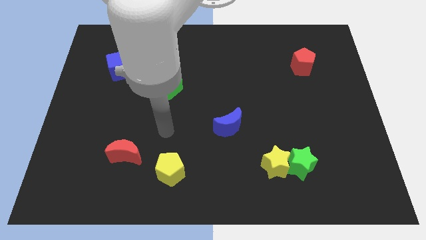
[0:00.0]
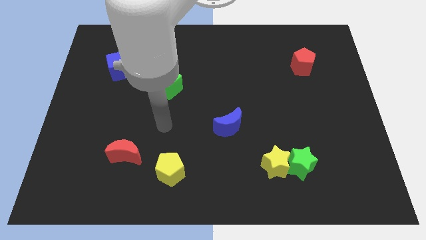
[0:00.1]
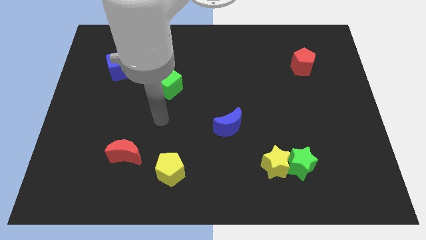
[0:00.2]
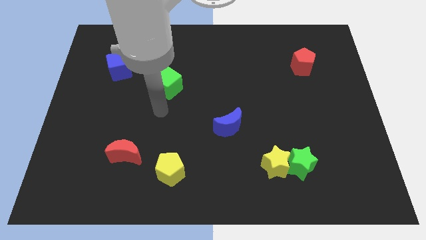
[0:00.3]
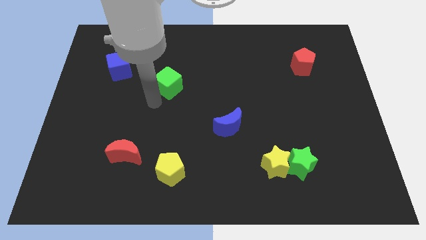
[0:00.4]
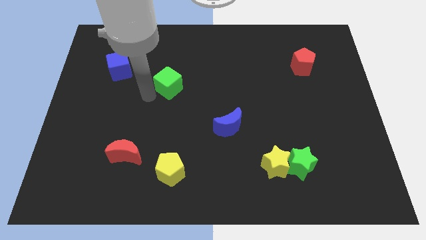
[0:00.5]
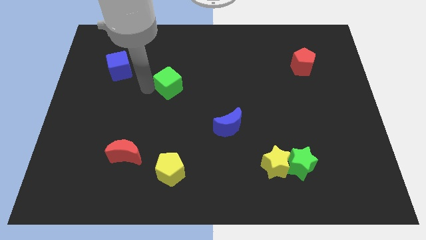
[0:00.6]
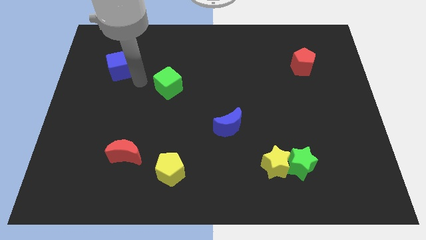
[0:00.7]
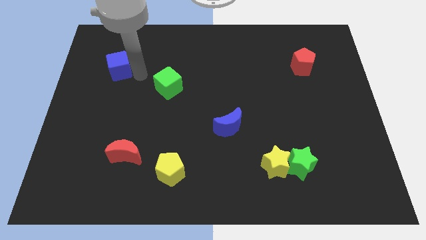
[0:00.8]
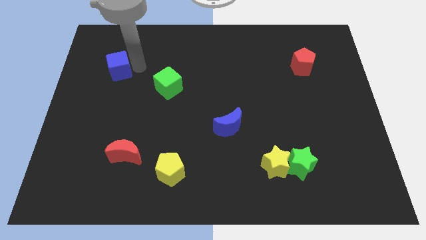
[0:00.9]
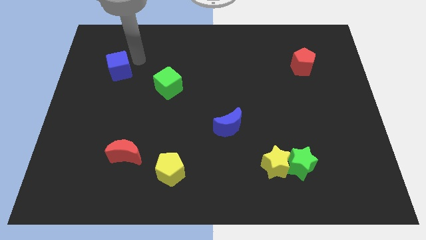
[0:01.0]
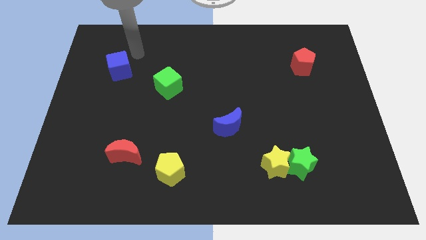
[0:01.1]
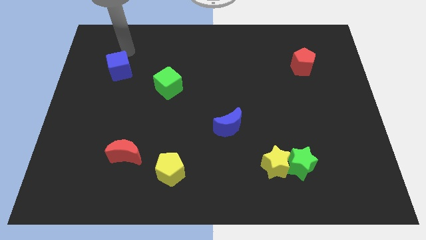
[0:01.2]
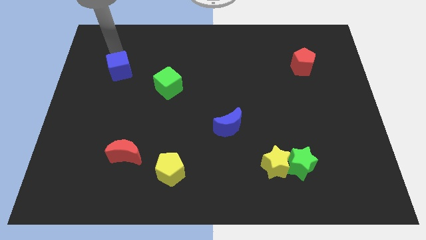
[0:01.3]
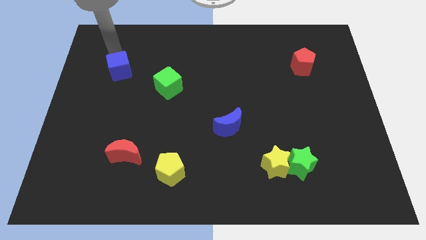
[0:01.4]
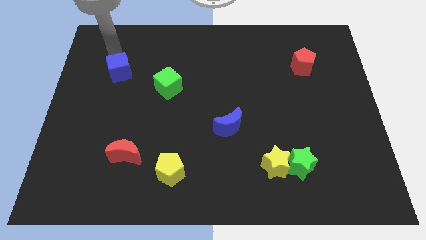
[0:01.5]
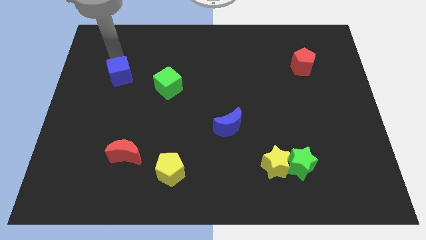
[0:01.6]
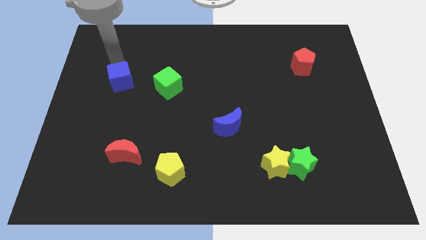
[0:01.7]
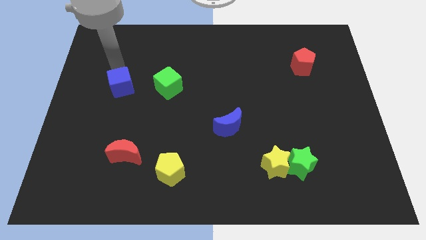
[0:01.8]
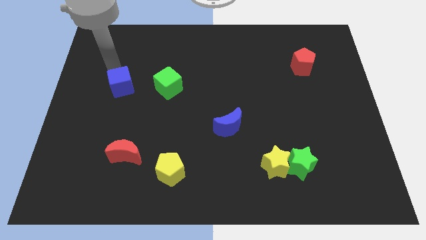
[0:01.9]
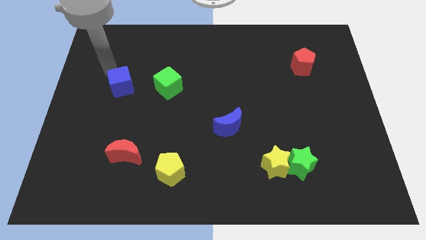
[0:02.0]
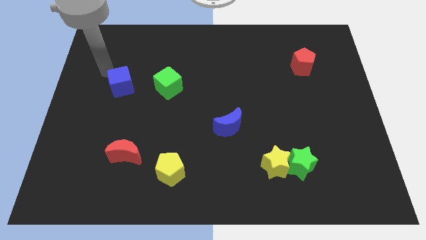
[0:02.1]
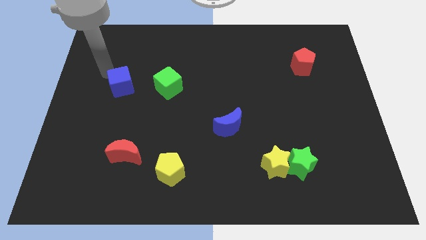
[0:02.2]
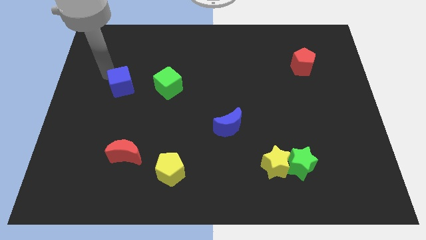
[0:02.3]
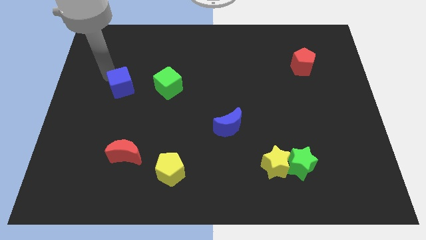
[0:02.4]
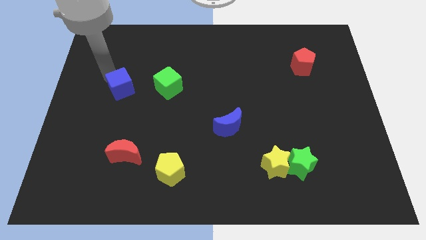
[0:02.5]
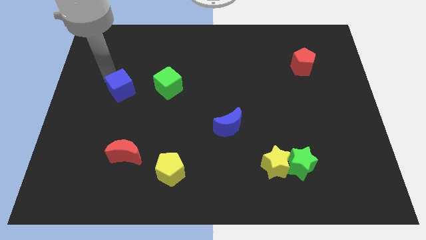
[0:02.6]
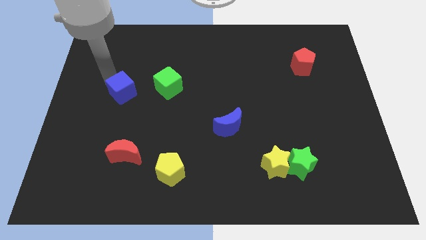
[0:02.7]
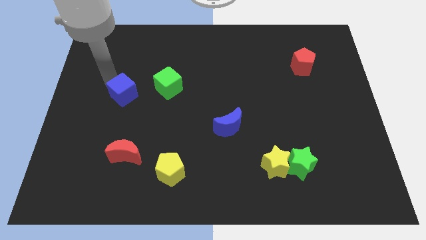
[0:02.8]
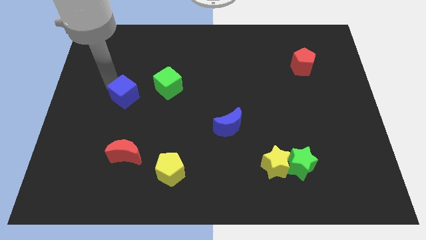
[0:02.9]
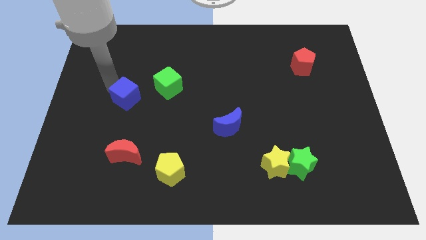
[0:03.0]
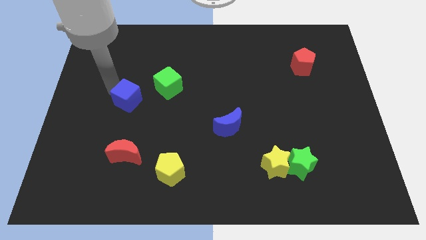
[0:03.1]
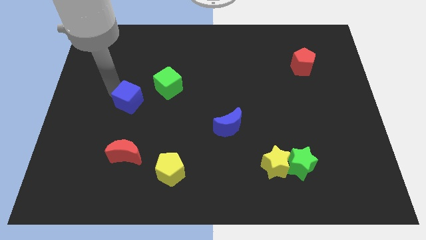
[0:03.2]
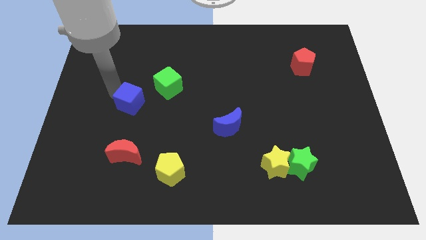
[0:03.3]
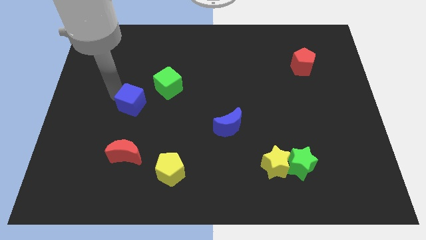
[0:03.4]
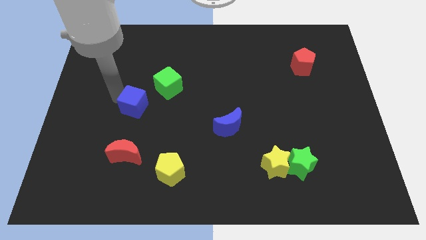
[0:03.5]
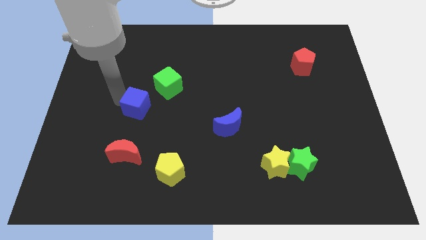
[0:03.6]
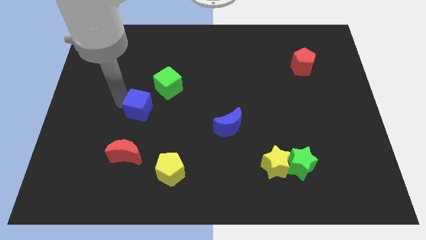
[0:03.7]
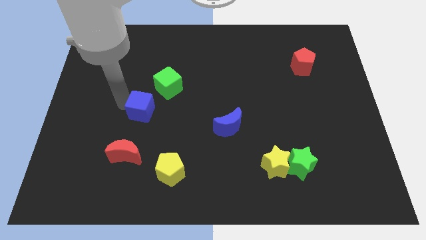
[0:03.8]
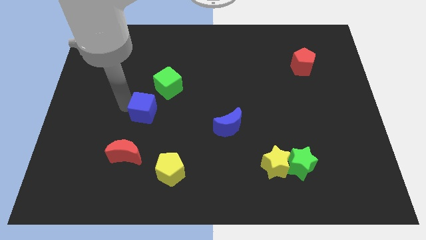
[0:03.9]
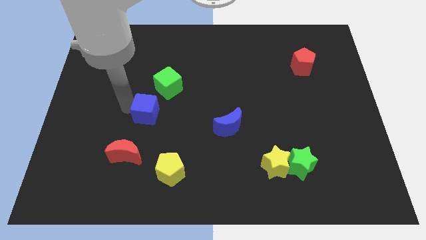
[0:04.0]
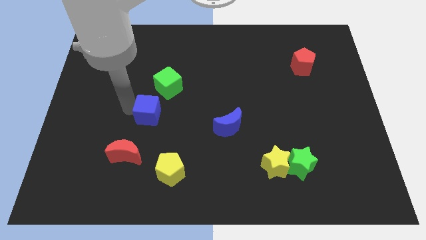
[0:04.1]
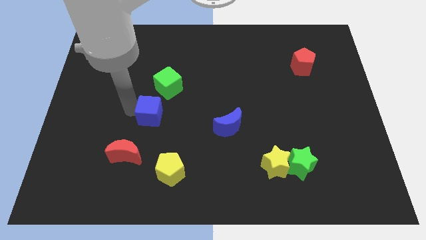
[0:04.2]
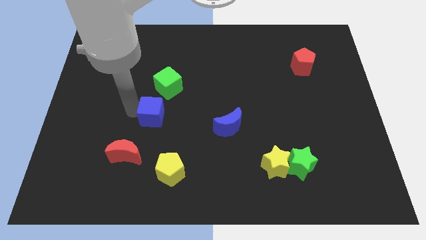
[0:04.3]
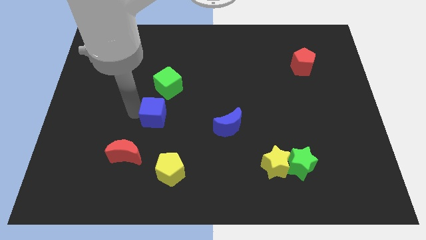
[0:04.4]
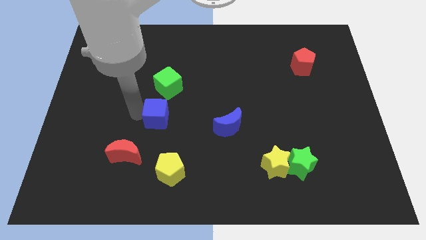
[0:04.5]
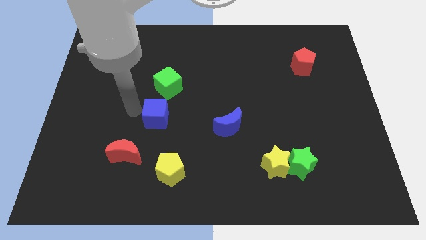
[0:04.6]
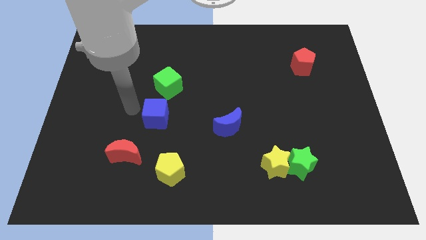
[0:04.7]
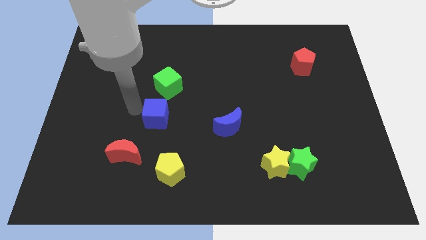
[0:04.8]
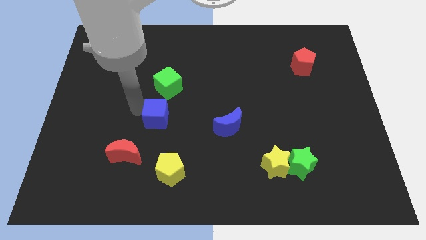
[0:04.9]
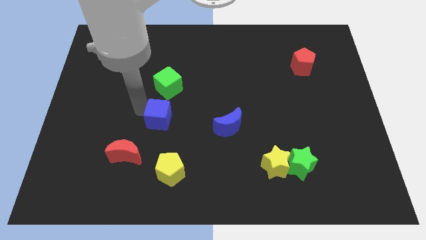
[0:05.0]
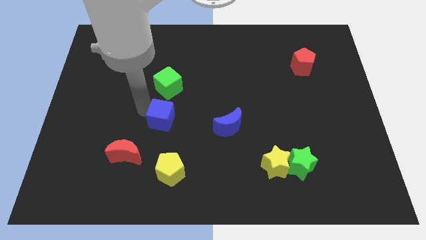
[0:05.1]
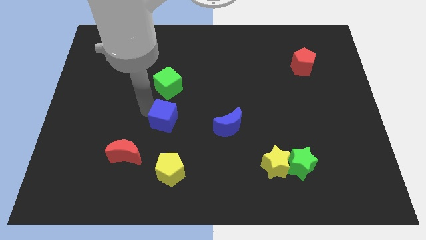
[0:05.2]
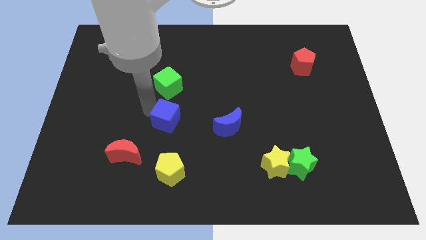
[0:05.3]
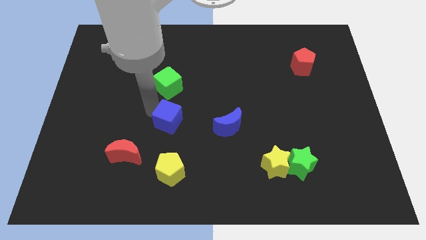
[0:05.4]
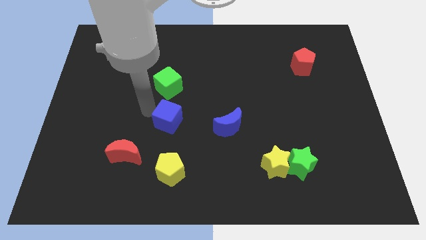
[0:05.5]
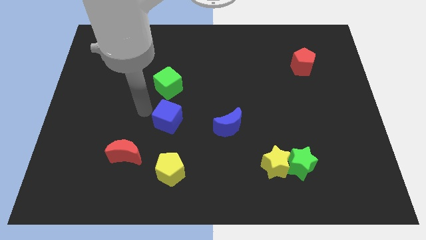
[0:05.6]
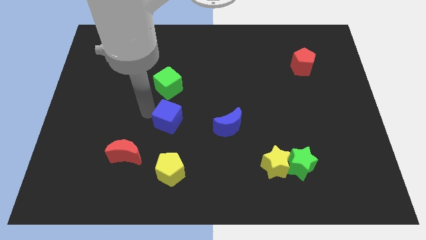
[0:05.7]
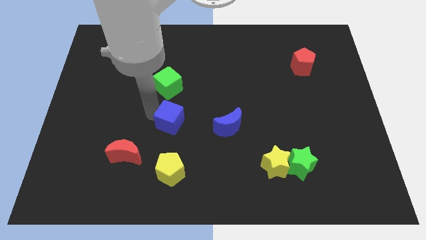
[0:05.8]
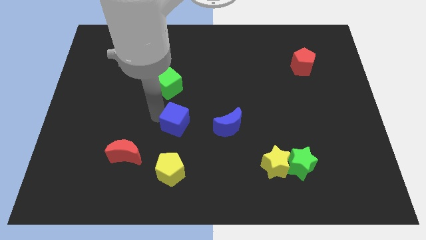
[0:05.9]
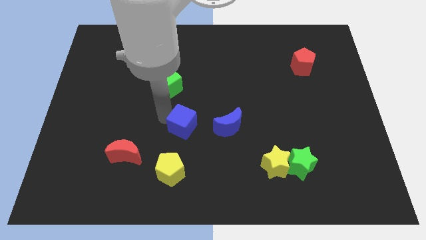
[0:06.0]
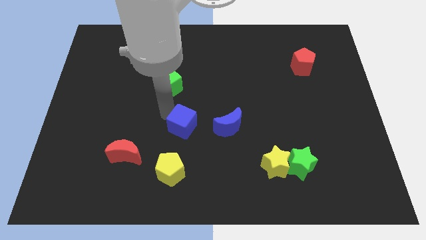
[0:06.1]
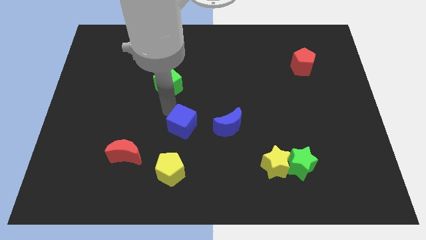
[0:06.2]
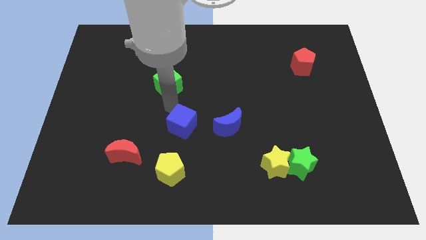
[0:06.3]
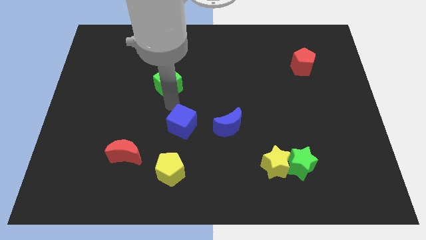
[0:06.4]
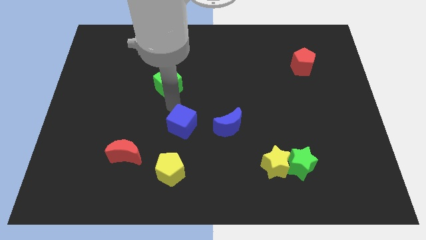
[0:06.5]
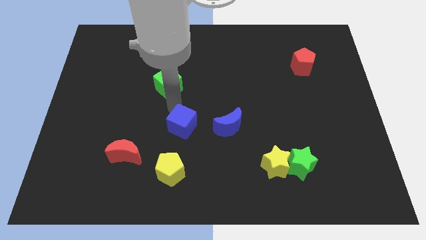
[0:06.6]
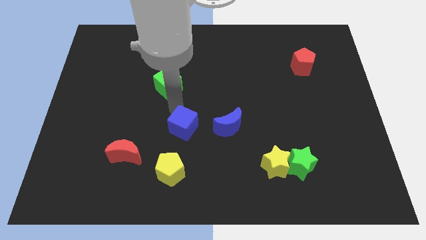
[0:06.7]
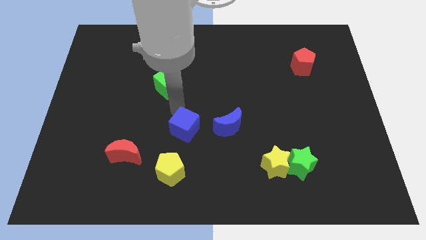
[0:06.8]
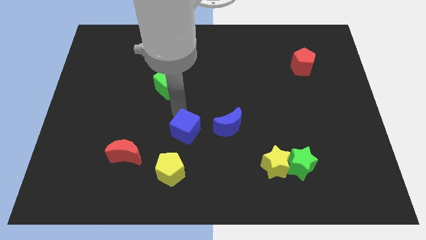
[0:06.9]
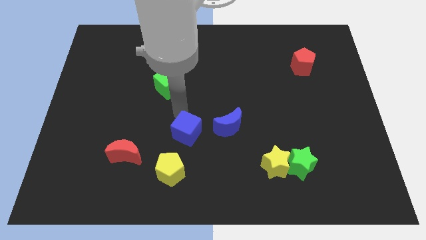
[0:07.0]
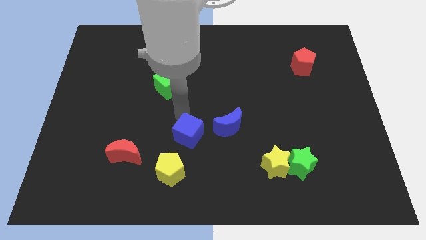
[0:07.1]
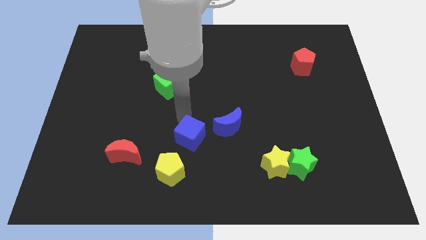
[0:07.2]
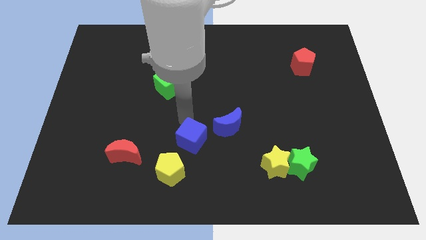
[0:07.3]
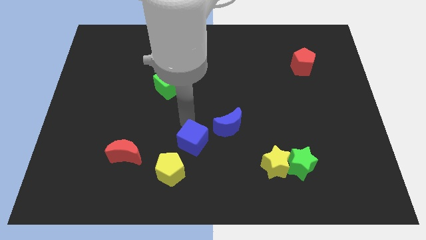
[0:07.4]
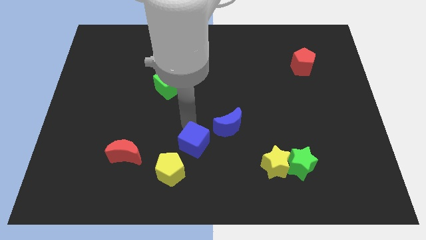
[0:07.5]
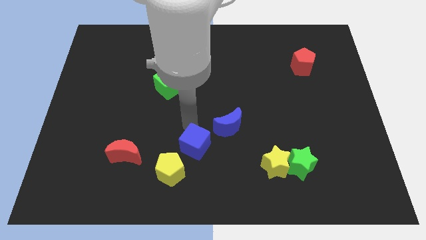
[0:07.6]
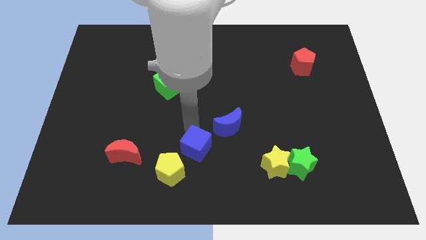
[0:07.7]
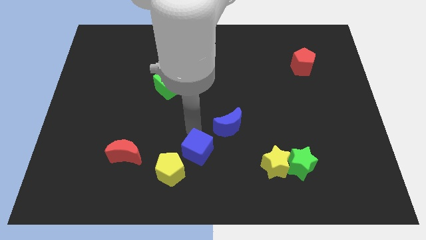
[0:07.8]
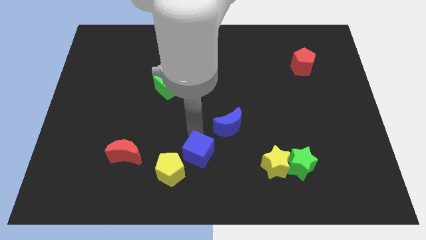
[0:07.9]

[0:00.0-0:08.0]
slide the blue cube to the right of the yellow pentagon
